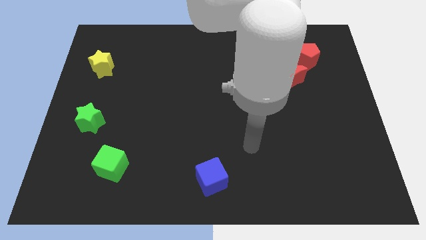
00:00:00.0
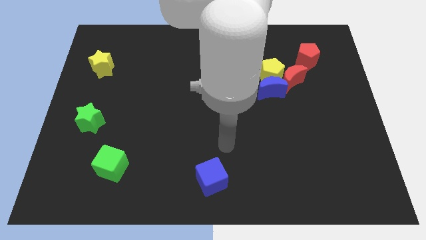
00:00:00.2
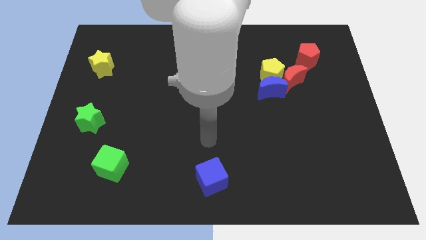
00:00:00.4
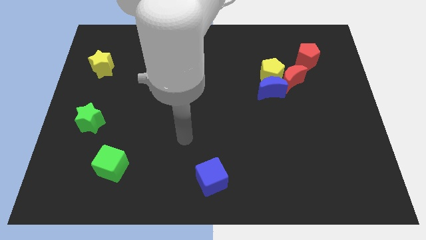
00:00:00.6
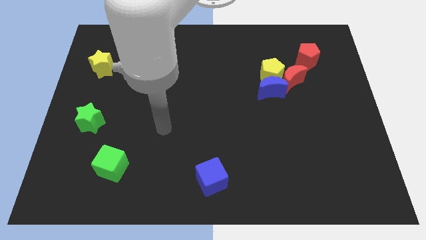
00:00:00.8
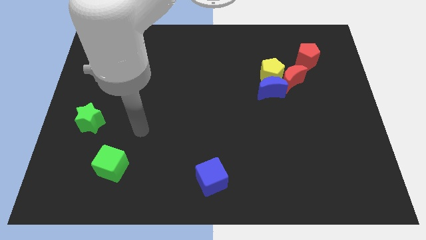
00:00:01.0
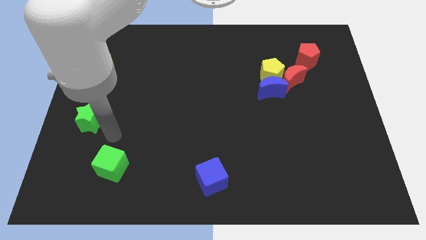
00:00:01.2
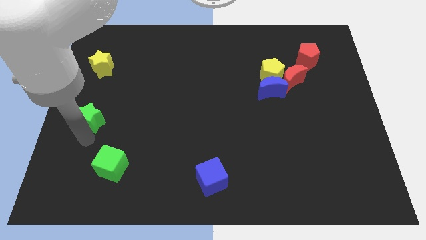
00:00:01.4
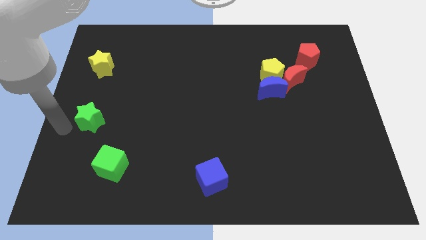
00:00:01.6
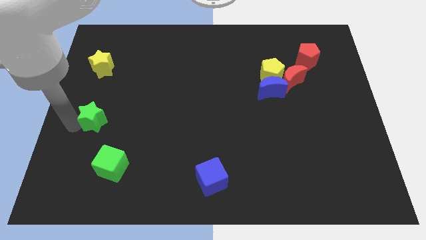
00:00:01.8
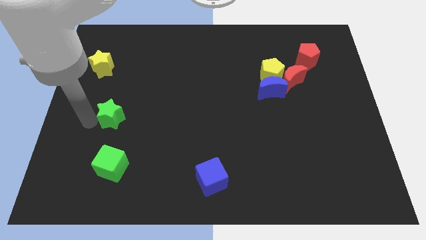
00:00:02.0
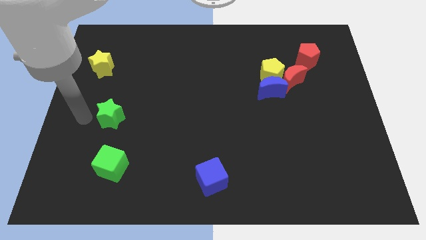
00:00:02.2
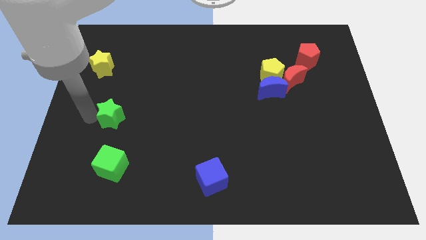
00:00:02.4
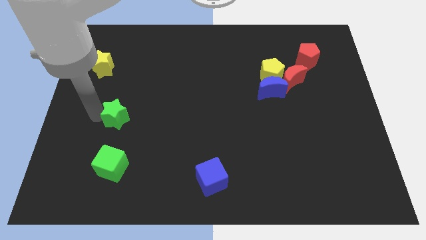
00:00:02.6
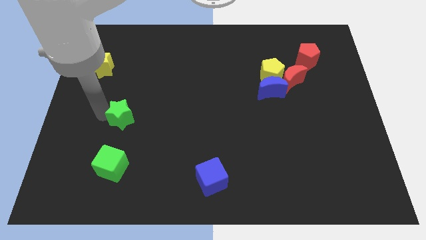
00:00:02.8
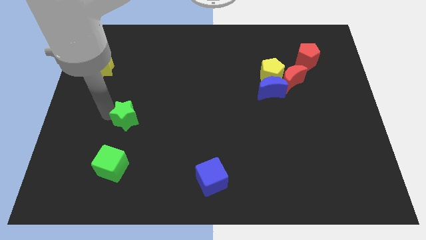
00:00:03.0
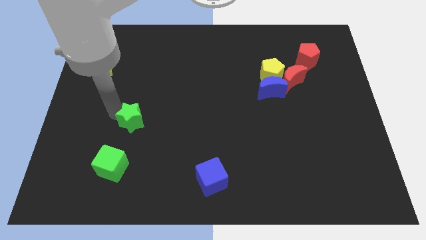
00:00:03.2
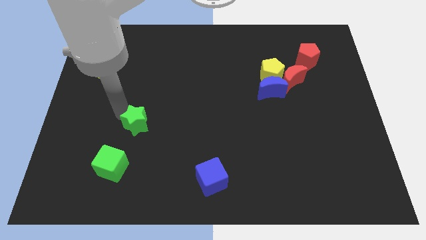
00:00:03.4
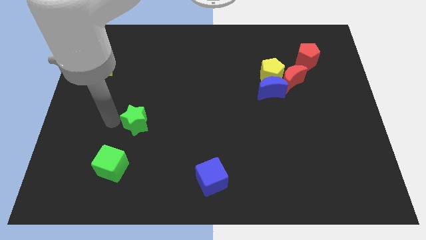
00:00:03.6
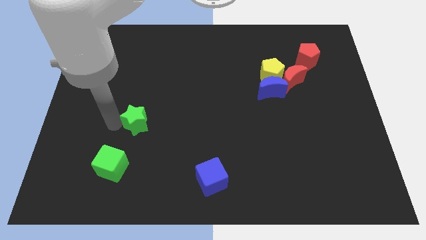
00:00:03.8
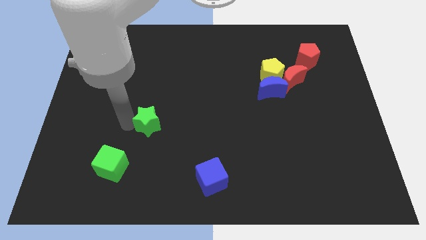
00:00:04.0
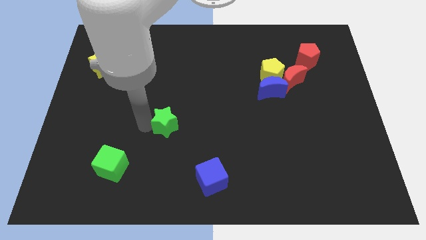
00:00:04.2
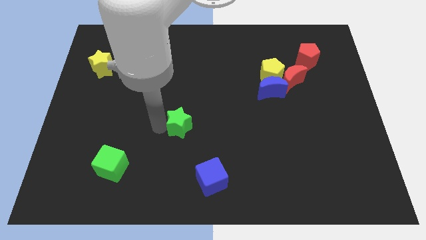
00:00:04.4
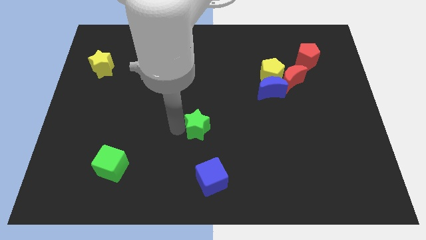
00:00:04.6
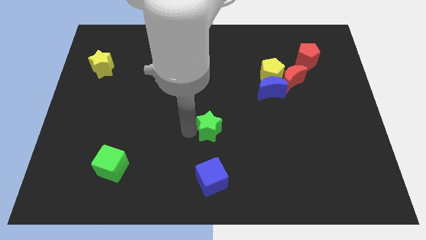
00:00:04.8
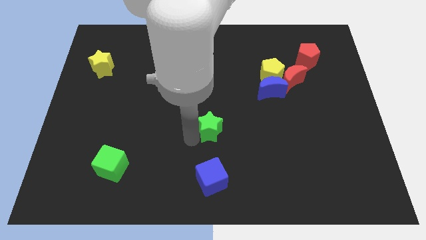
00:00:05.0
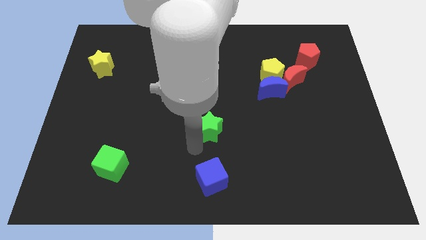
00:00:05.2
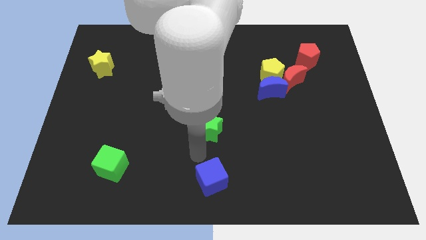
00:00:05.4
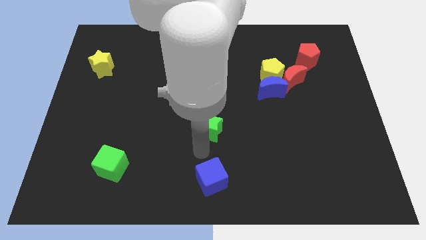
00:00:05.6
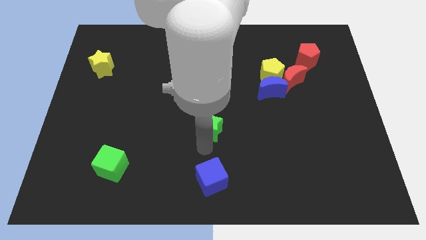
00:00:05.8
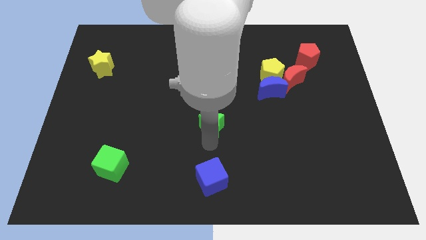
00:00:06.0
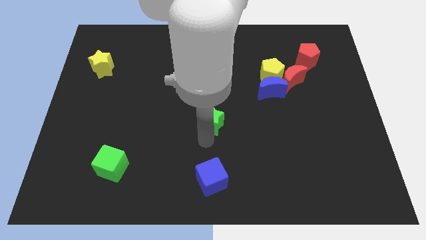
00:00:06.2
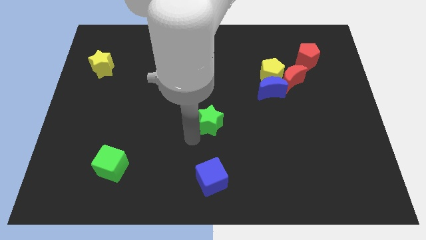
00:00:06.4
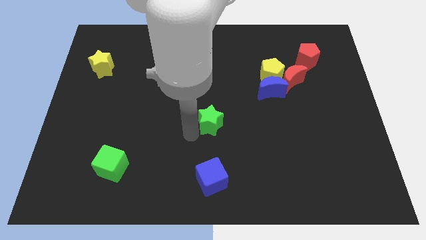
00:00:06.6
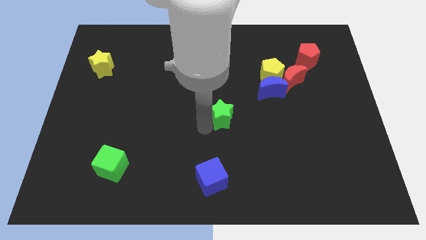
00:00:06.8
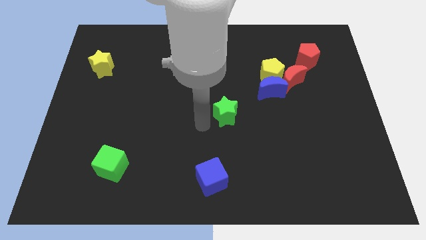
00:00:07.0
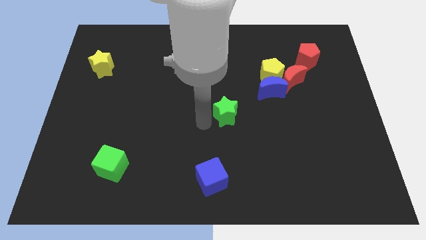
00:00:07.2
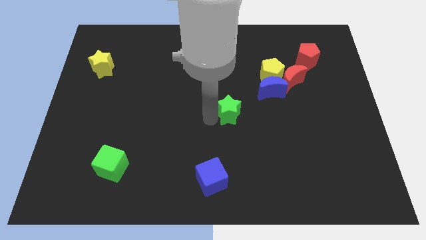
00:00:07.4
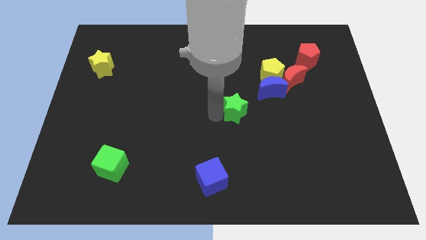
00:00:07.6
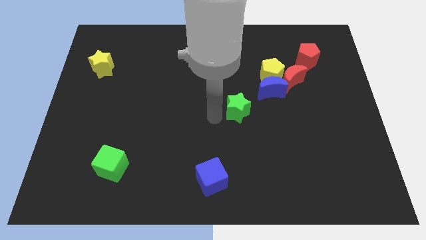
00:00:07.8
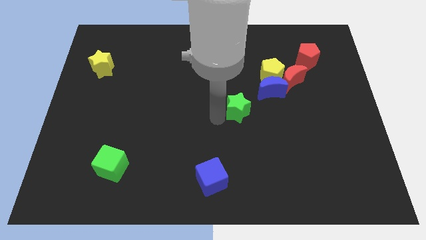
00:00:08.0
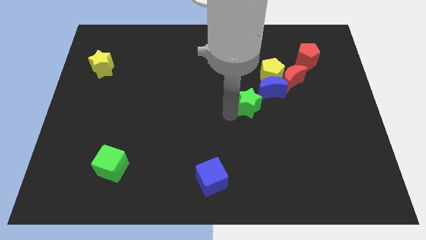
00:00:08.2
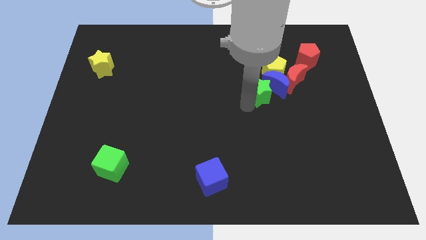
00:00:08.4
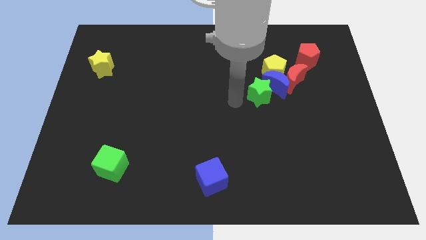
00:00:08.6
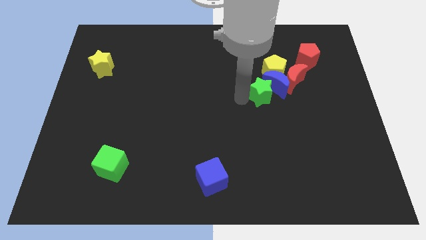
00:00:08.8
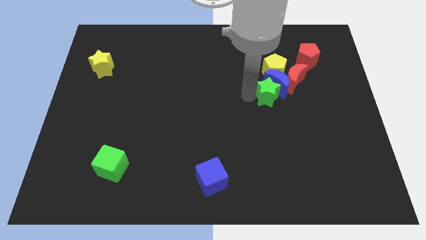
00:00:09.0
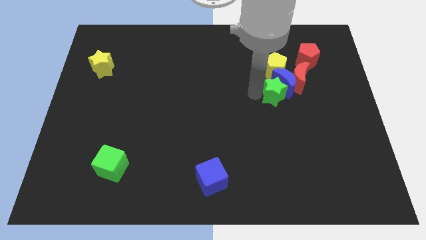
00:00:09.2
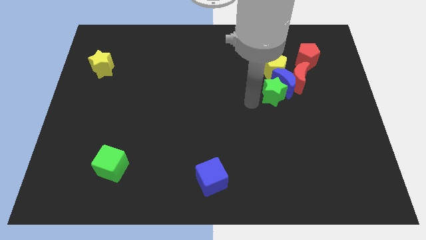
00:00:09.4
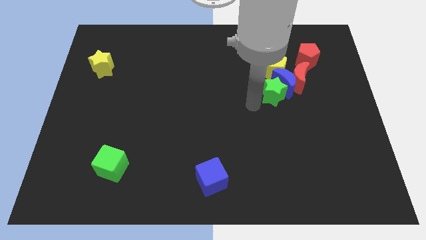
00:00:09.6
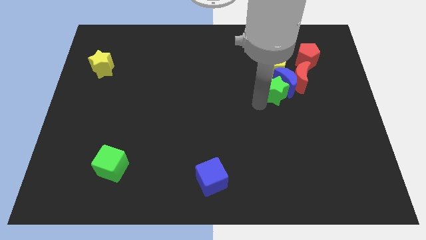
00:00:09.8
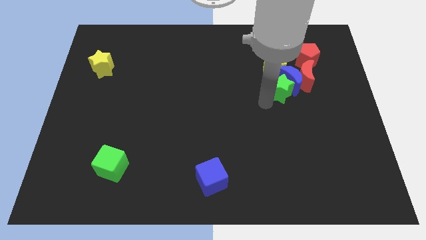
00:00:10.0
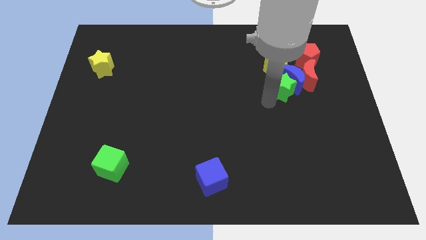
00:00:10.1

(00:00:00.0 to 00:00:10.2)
put the green star to the bottom right side of the yellow pentagon

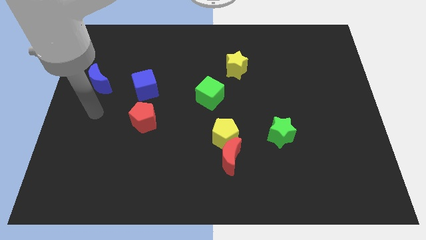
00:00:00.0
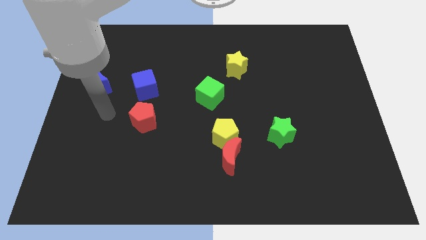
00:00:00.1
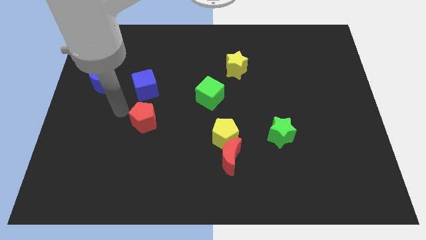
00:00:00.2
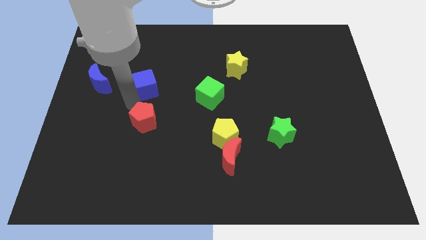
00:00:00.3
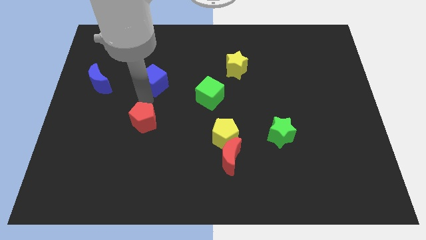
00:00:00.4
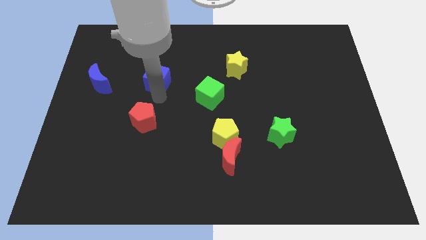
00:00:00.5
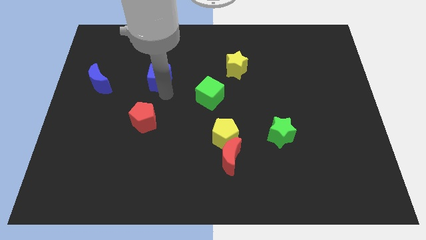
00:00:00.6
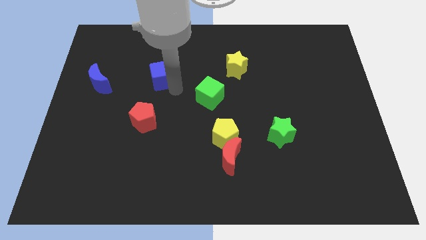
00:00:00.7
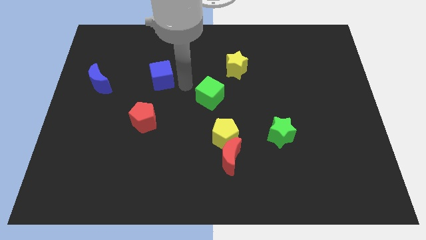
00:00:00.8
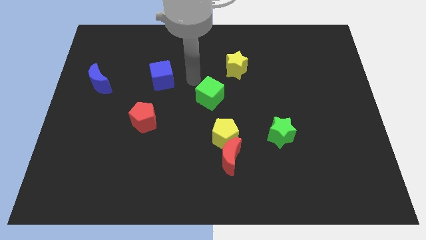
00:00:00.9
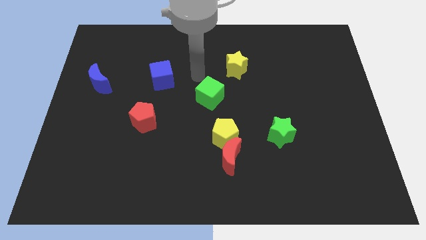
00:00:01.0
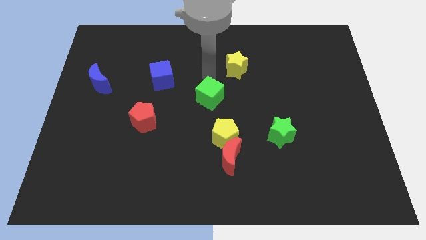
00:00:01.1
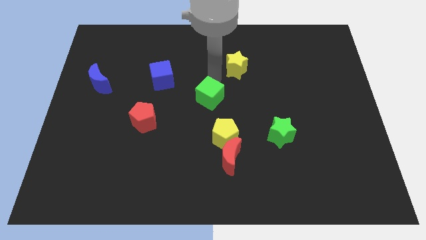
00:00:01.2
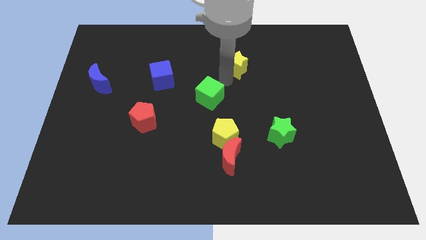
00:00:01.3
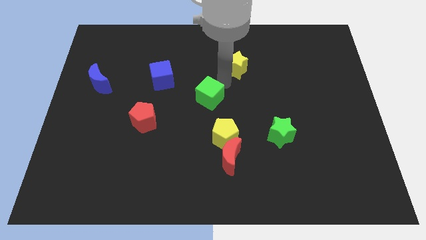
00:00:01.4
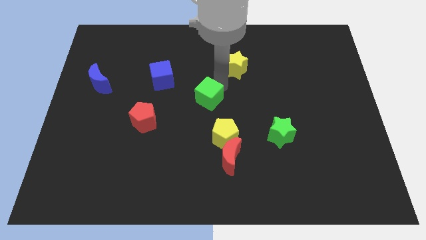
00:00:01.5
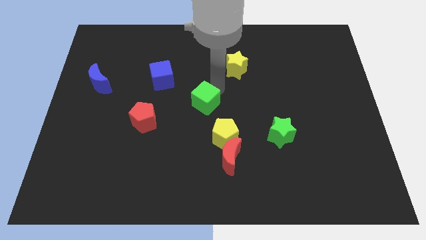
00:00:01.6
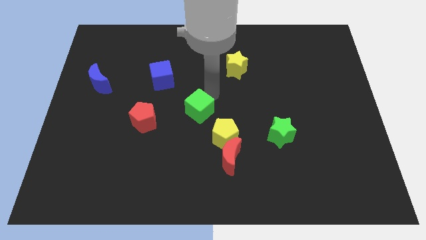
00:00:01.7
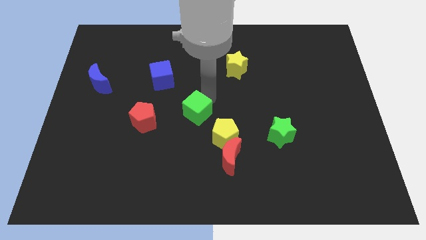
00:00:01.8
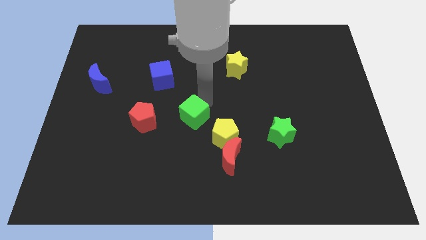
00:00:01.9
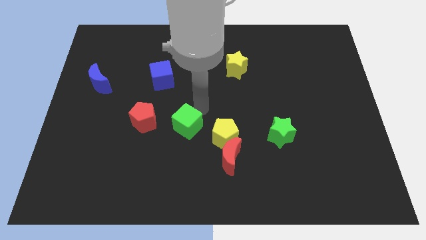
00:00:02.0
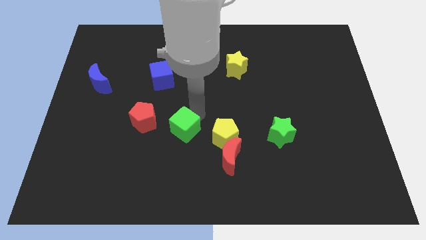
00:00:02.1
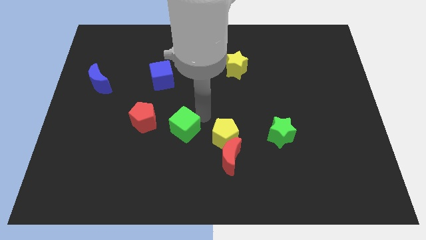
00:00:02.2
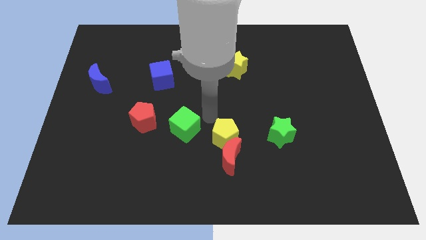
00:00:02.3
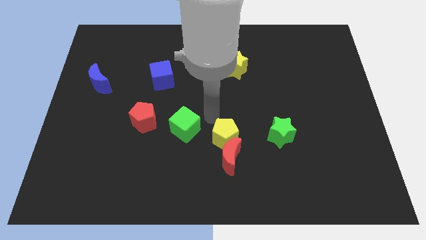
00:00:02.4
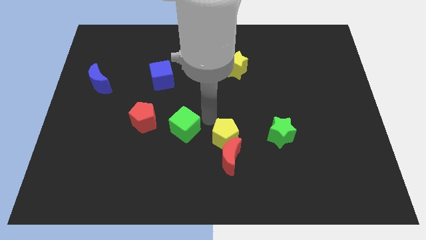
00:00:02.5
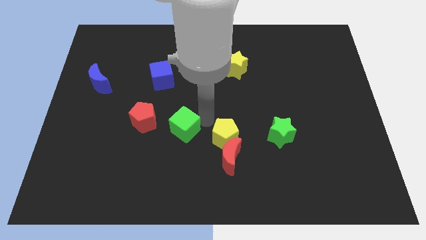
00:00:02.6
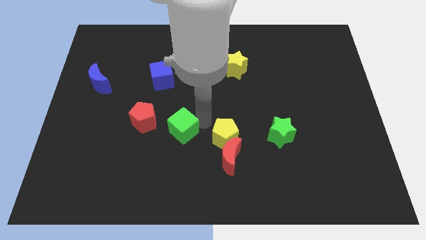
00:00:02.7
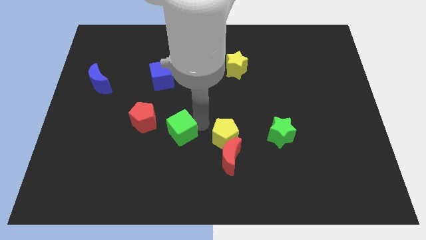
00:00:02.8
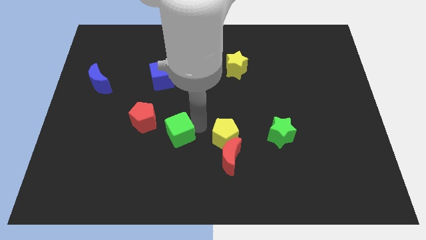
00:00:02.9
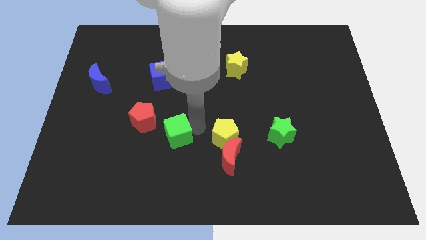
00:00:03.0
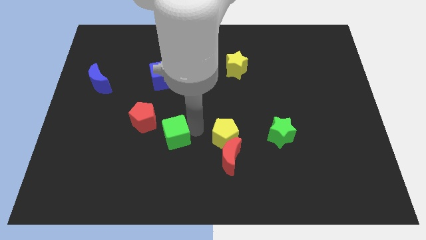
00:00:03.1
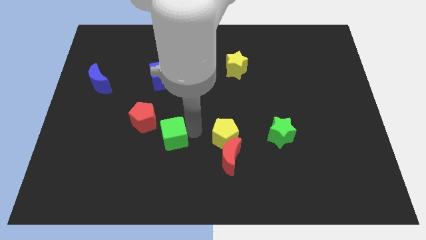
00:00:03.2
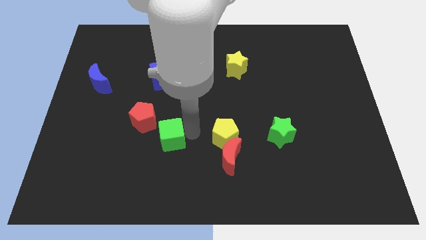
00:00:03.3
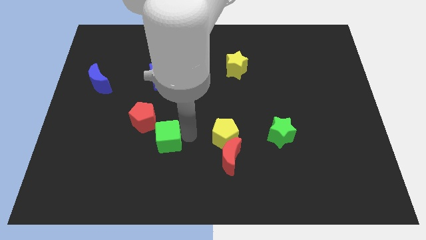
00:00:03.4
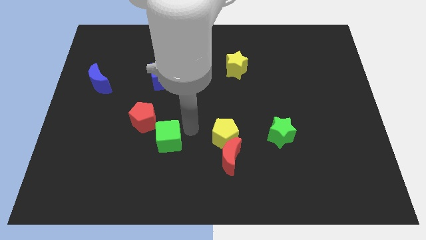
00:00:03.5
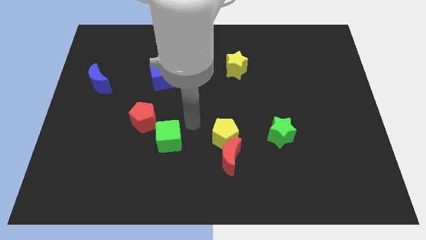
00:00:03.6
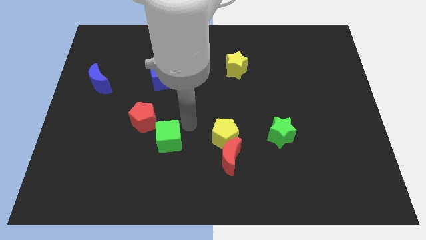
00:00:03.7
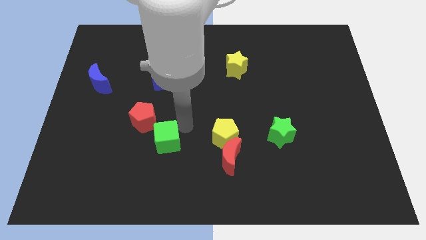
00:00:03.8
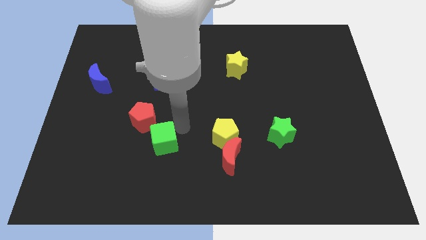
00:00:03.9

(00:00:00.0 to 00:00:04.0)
slide the green cube to the bottom side of the red pentagon
